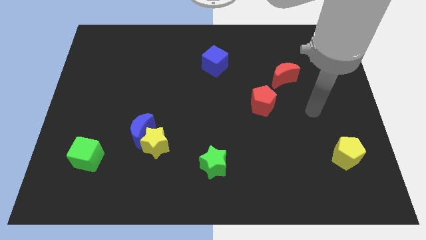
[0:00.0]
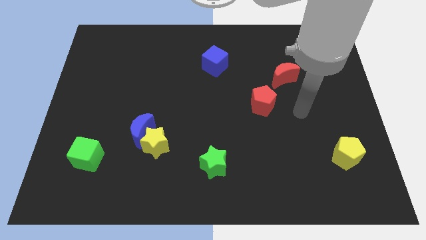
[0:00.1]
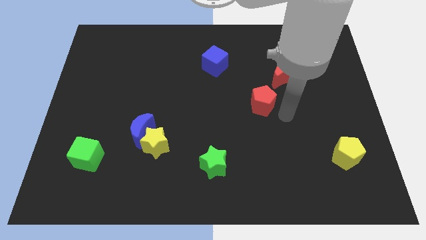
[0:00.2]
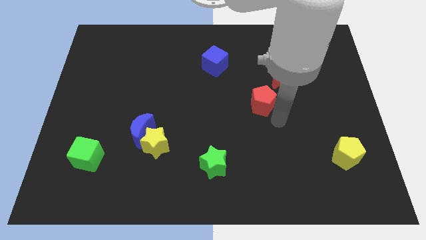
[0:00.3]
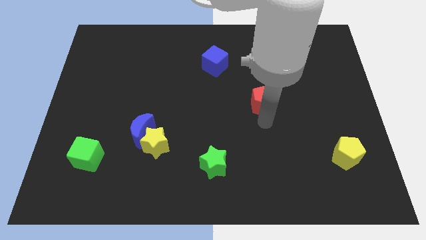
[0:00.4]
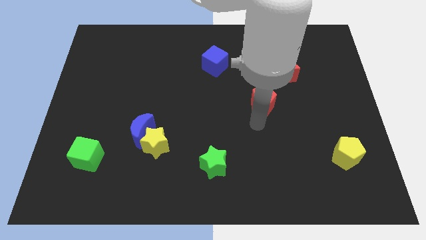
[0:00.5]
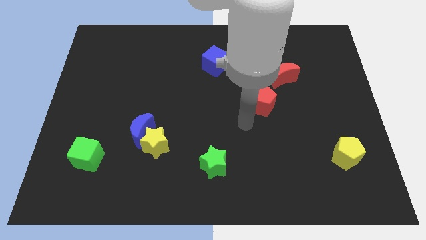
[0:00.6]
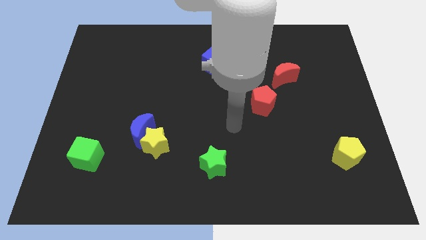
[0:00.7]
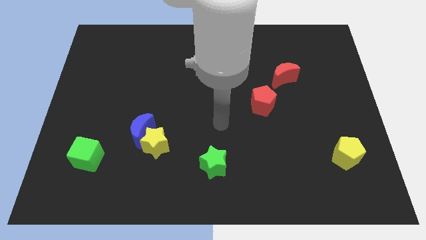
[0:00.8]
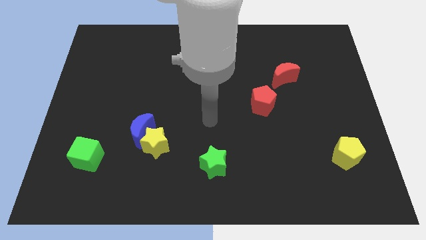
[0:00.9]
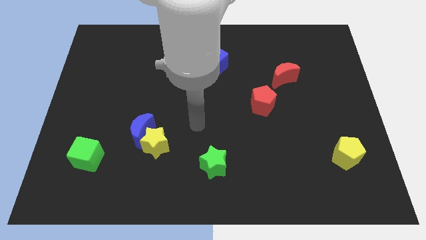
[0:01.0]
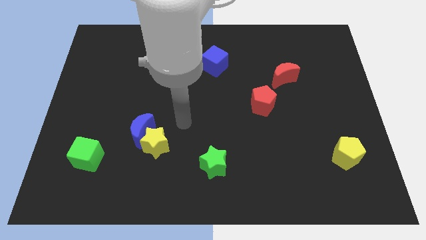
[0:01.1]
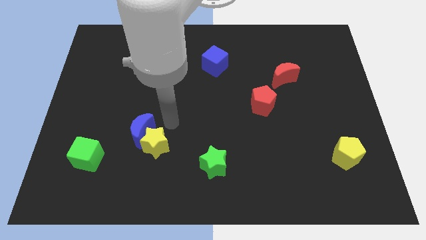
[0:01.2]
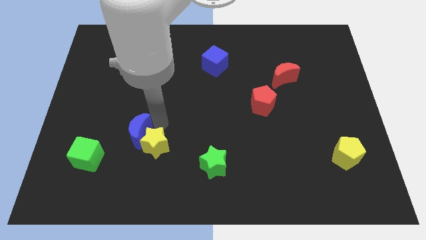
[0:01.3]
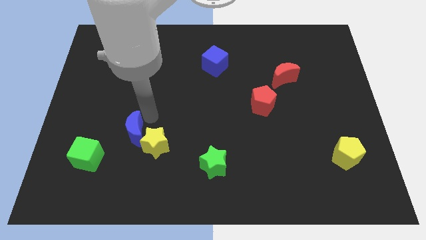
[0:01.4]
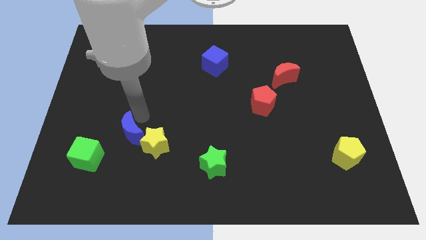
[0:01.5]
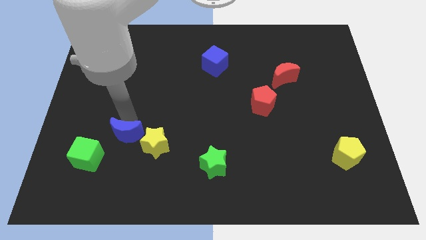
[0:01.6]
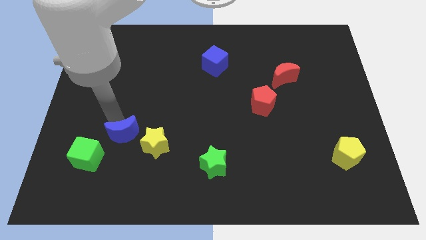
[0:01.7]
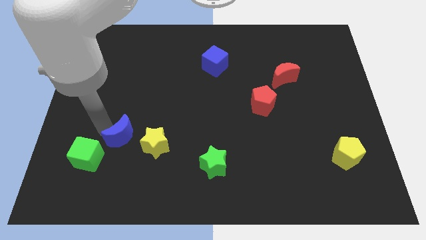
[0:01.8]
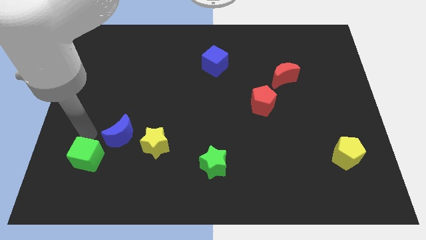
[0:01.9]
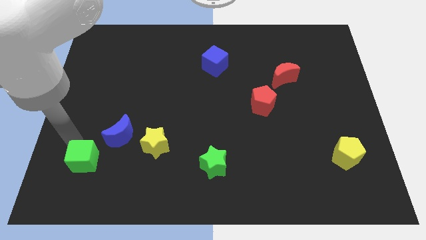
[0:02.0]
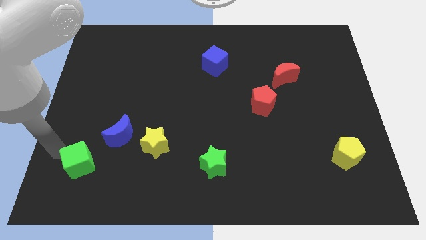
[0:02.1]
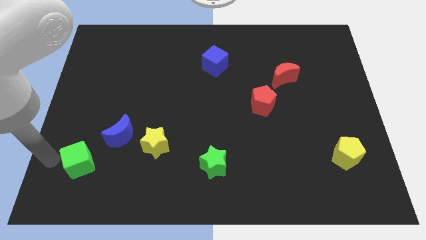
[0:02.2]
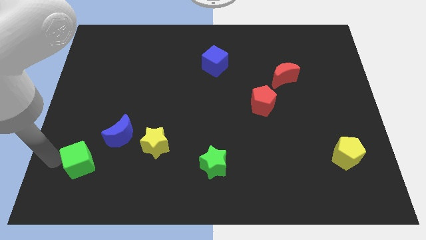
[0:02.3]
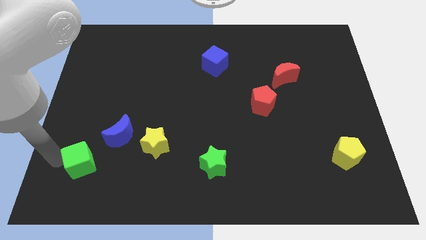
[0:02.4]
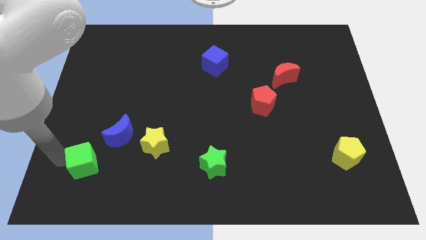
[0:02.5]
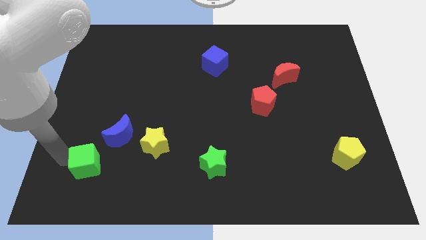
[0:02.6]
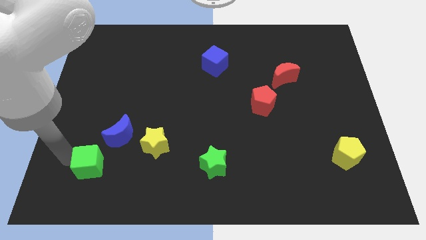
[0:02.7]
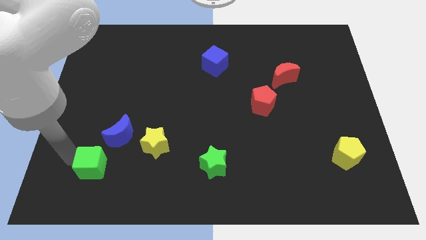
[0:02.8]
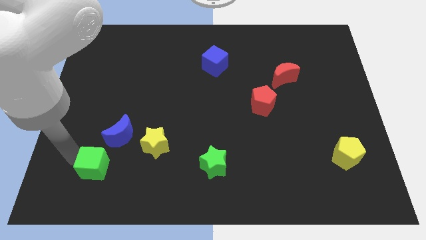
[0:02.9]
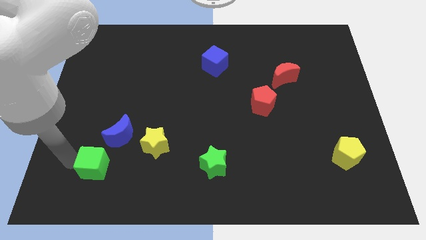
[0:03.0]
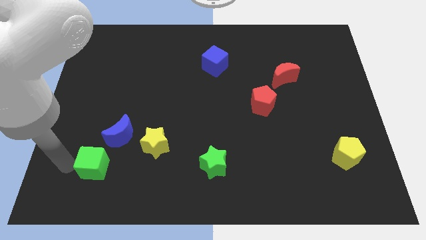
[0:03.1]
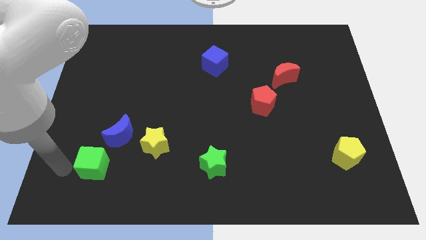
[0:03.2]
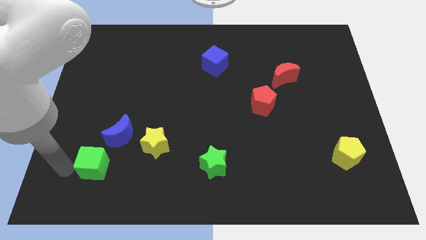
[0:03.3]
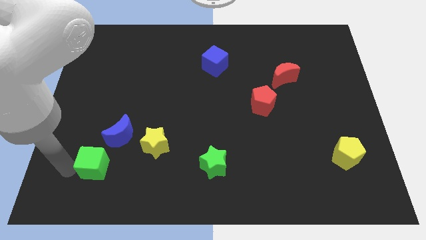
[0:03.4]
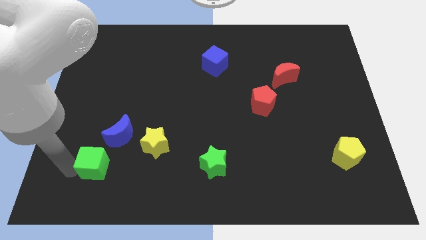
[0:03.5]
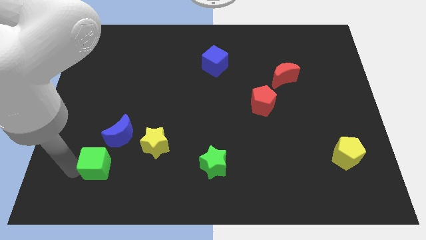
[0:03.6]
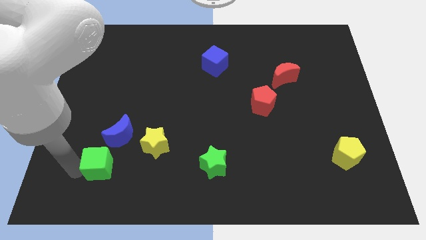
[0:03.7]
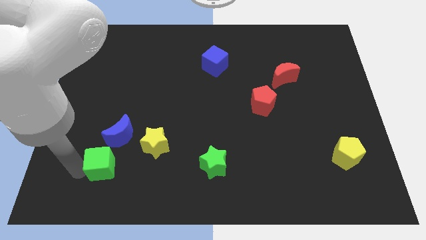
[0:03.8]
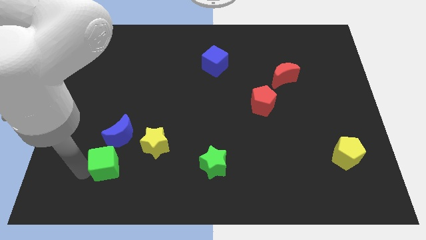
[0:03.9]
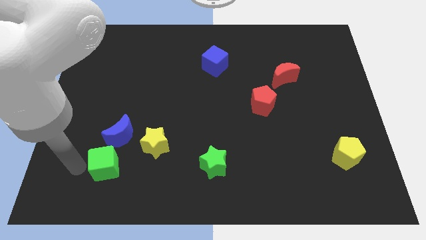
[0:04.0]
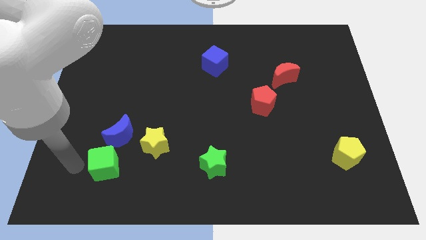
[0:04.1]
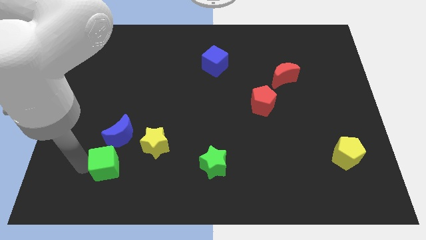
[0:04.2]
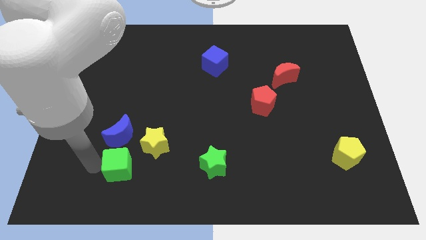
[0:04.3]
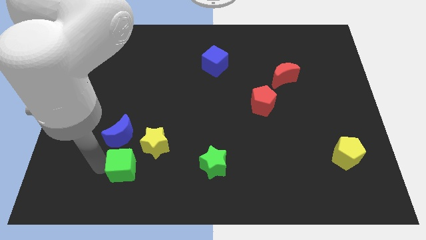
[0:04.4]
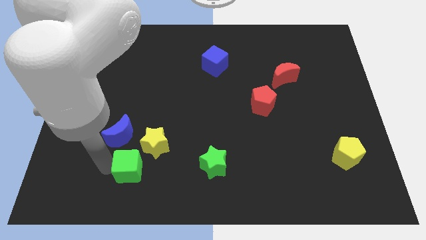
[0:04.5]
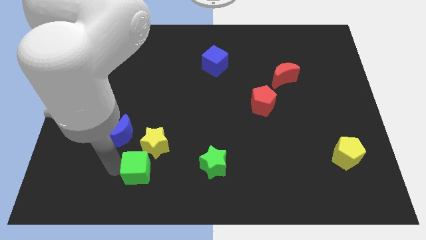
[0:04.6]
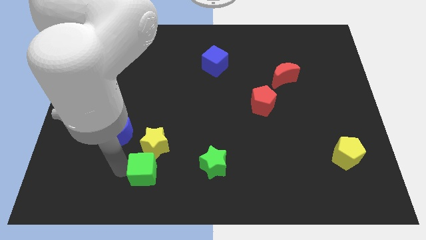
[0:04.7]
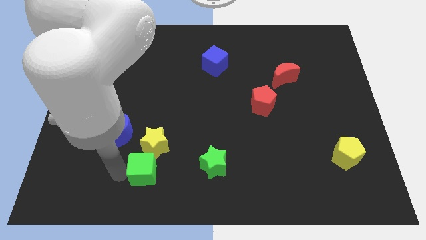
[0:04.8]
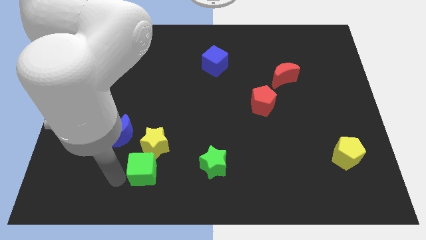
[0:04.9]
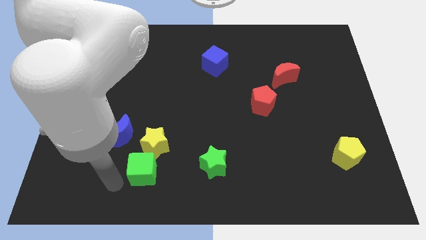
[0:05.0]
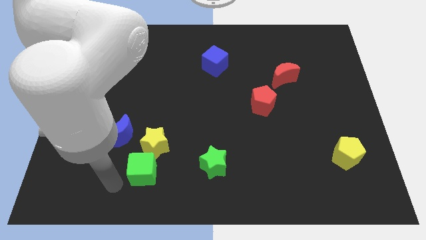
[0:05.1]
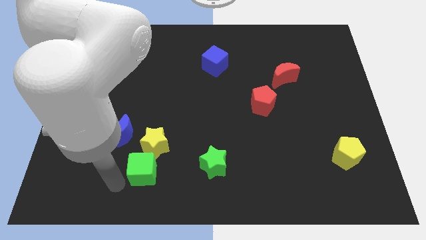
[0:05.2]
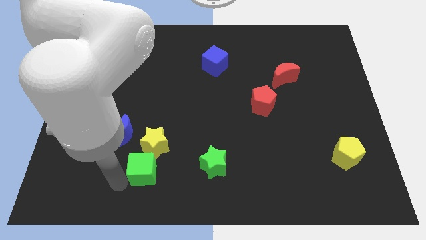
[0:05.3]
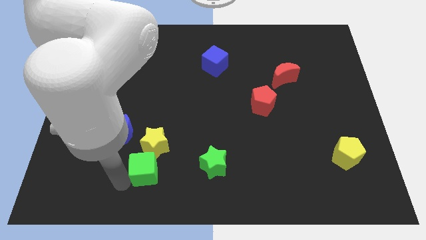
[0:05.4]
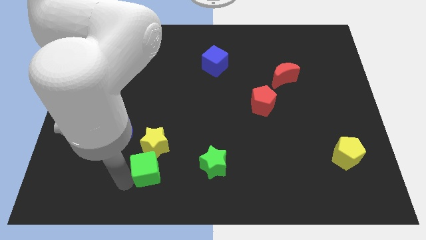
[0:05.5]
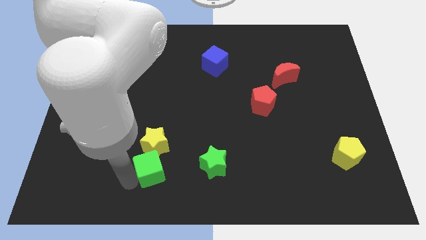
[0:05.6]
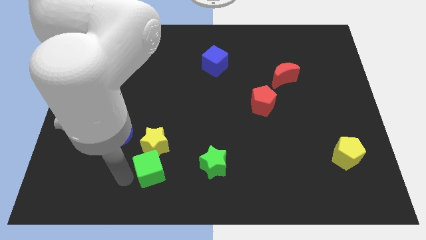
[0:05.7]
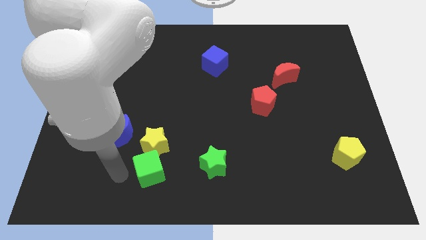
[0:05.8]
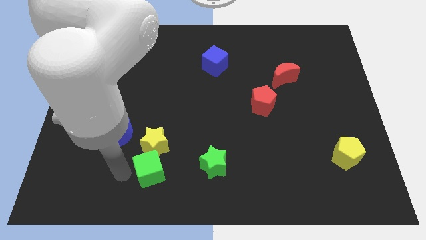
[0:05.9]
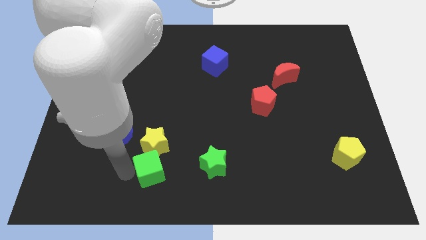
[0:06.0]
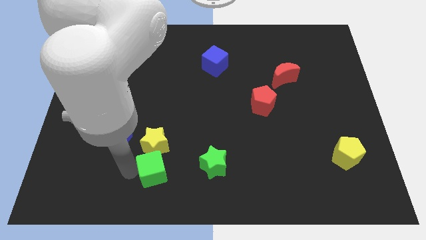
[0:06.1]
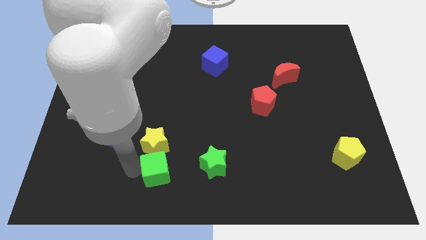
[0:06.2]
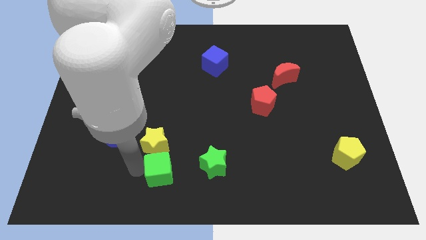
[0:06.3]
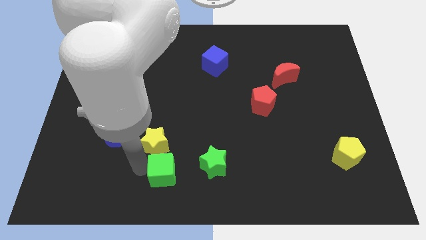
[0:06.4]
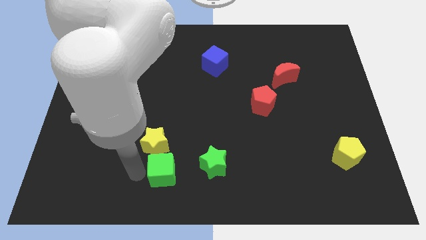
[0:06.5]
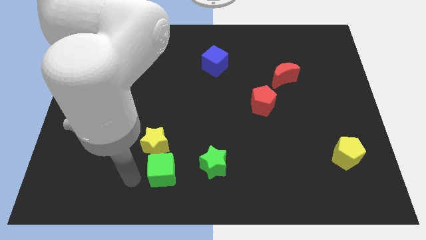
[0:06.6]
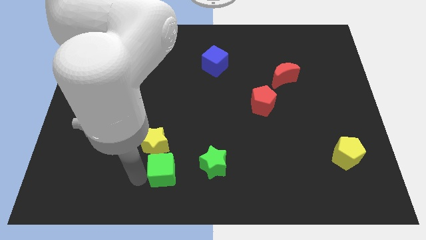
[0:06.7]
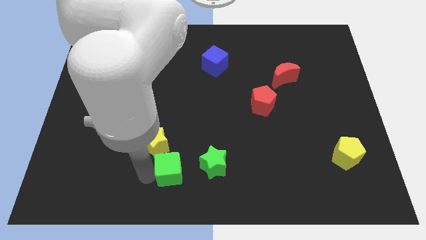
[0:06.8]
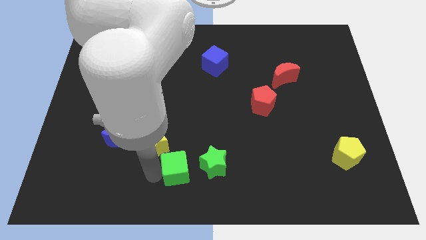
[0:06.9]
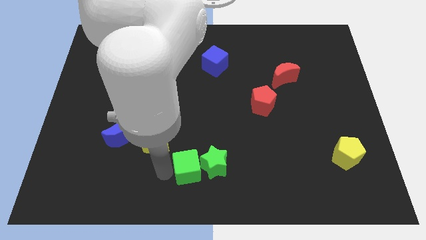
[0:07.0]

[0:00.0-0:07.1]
push the green cube next to the green star

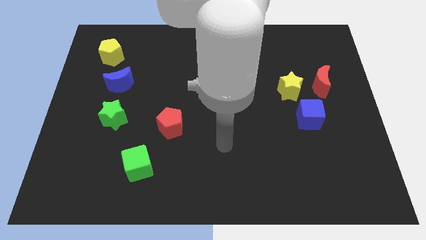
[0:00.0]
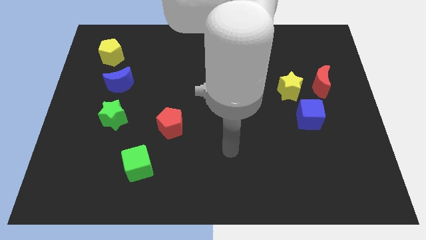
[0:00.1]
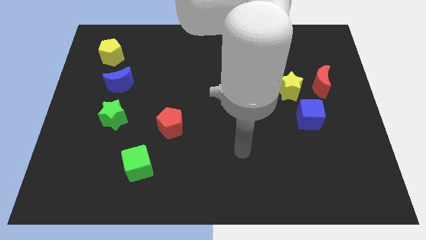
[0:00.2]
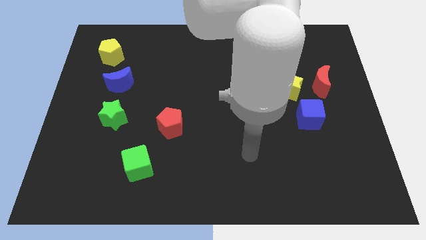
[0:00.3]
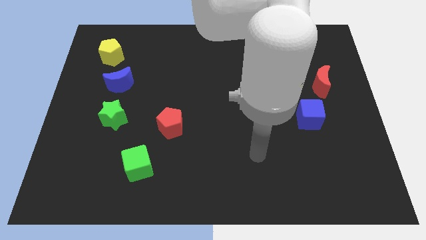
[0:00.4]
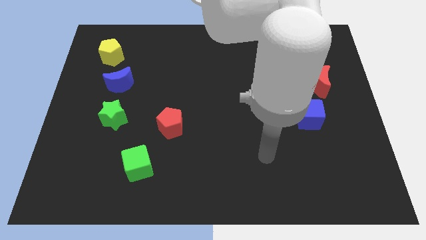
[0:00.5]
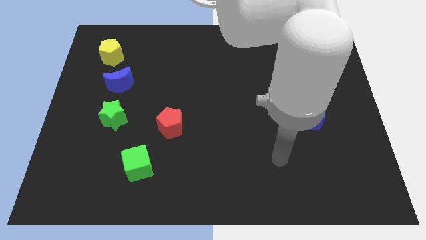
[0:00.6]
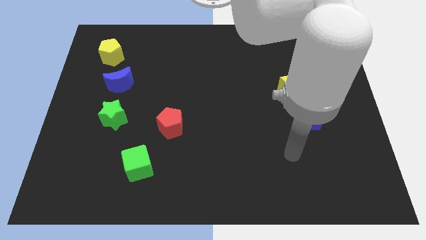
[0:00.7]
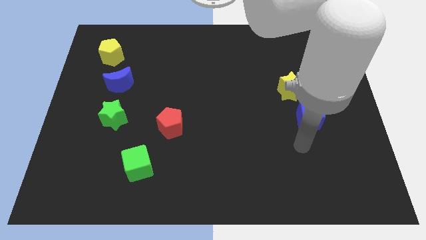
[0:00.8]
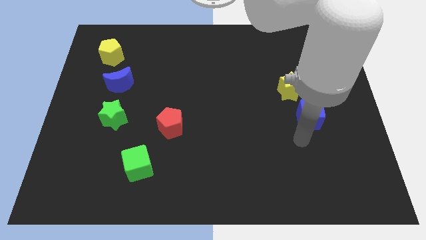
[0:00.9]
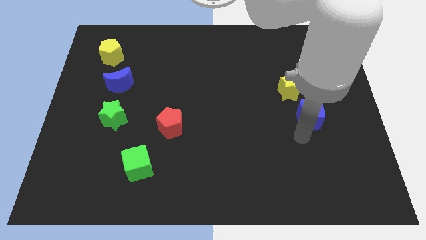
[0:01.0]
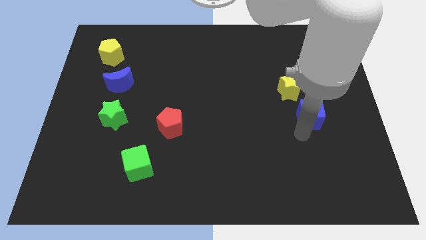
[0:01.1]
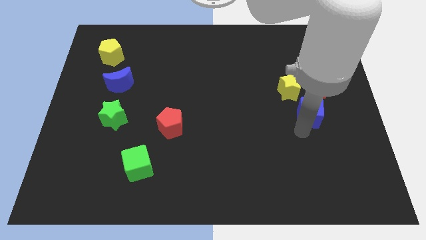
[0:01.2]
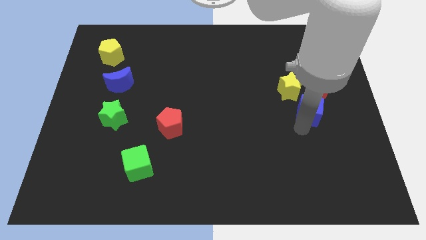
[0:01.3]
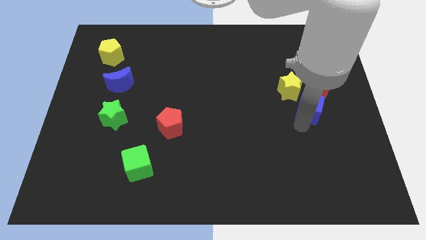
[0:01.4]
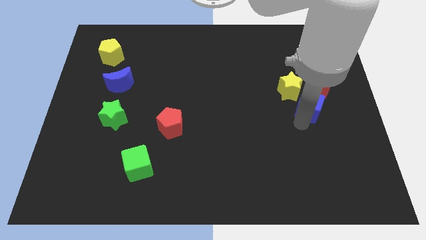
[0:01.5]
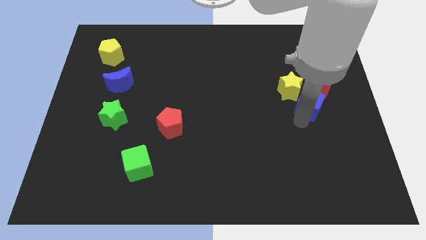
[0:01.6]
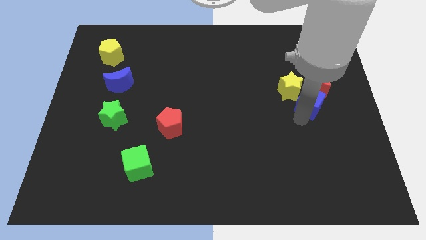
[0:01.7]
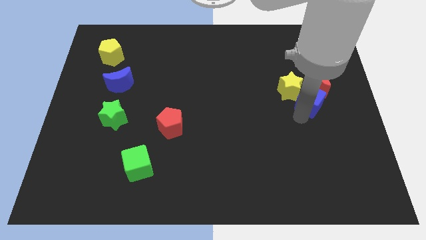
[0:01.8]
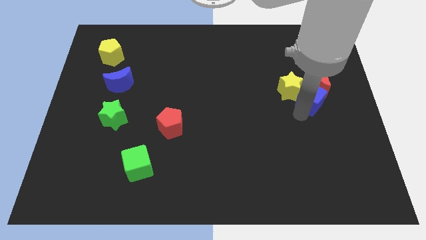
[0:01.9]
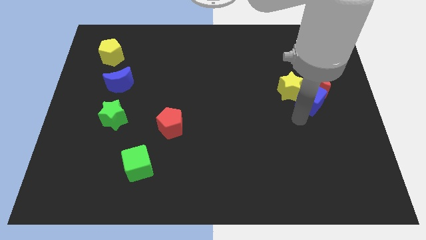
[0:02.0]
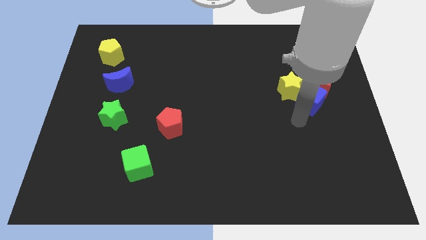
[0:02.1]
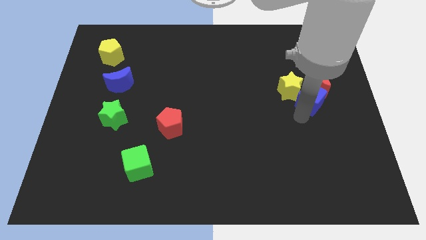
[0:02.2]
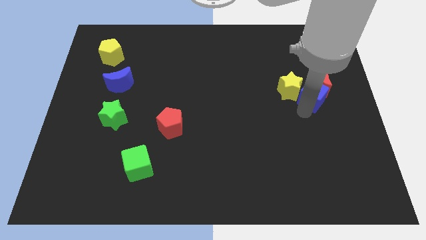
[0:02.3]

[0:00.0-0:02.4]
slide the blue cube towards the red moon
